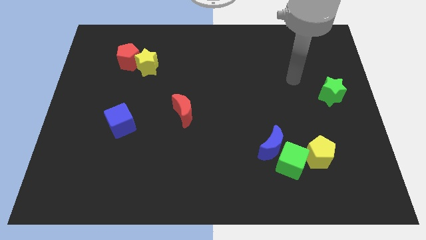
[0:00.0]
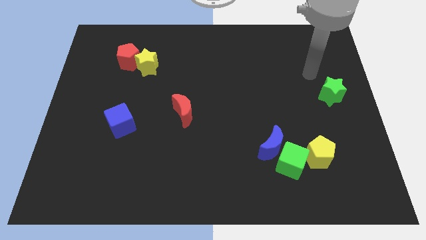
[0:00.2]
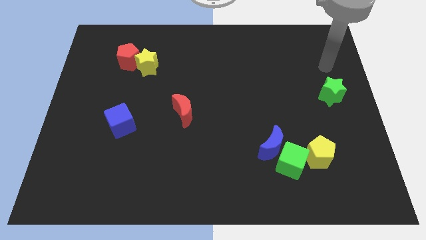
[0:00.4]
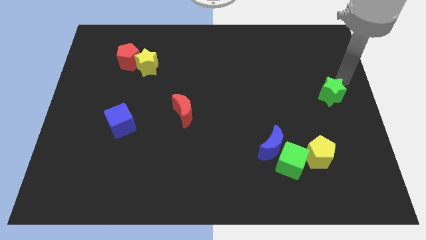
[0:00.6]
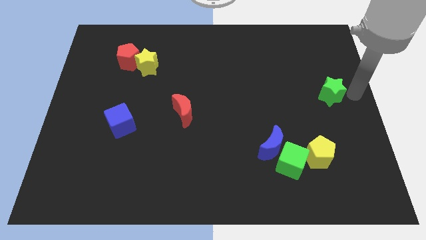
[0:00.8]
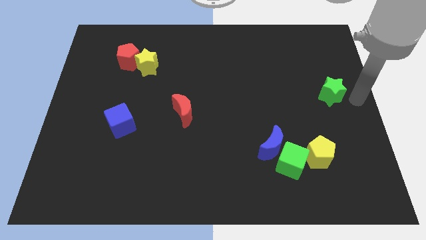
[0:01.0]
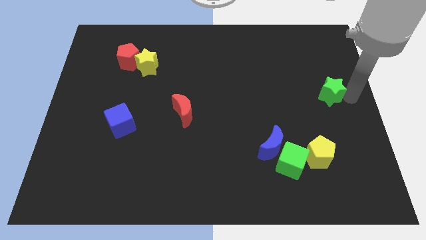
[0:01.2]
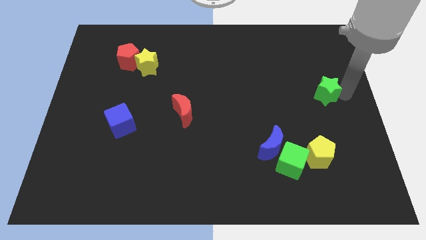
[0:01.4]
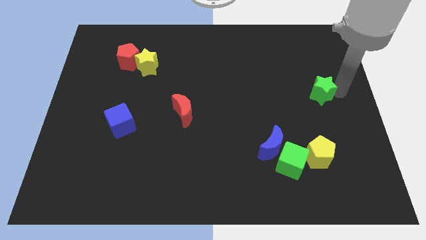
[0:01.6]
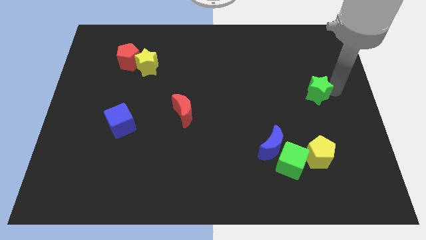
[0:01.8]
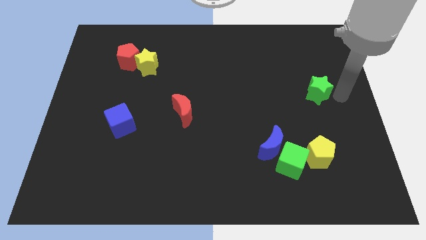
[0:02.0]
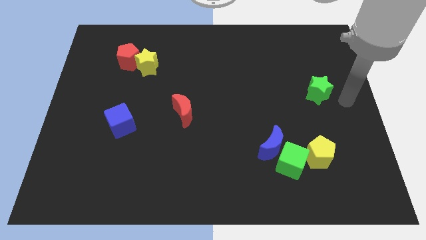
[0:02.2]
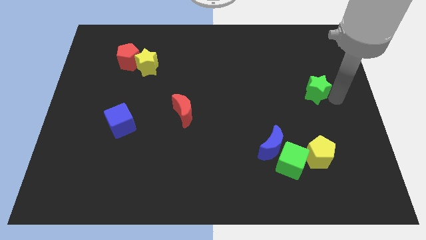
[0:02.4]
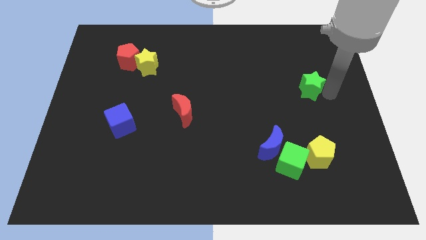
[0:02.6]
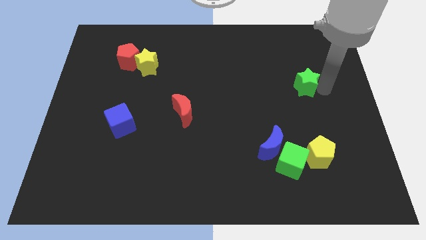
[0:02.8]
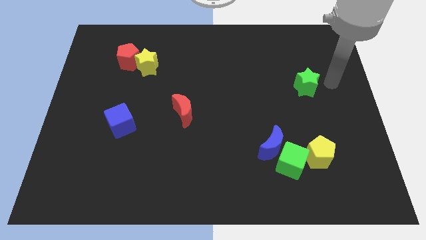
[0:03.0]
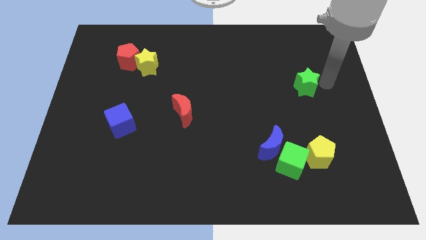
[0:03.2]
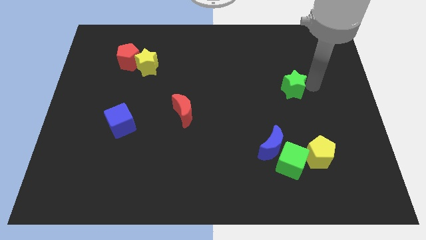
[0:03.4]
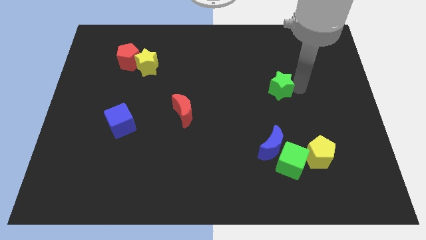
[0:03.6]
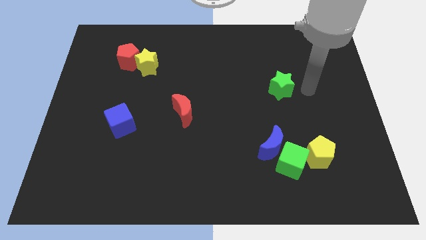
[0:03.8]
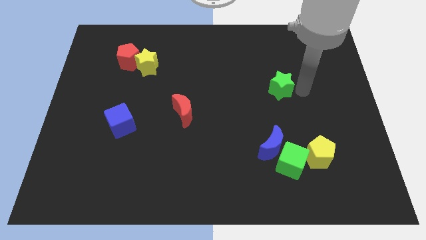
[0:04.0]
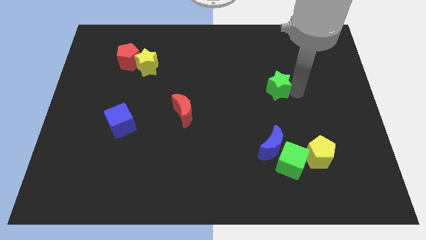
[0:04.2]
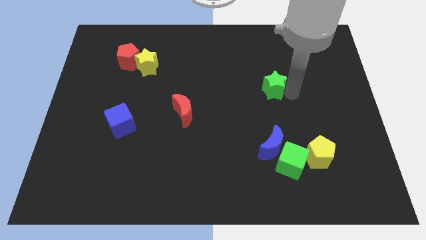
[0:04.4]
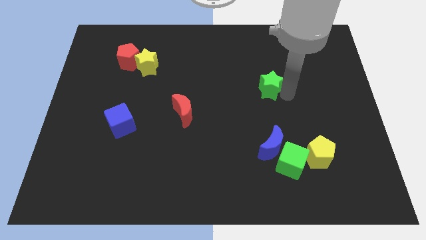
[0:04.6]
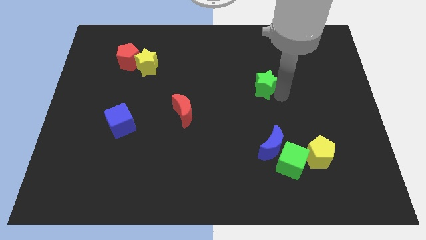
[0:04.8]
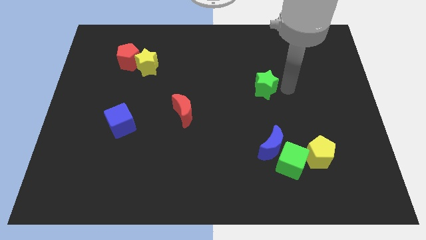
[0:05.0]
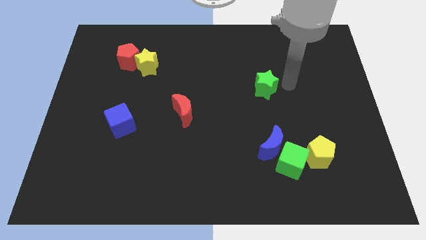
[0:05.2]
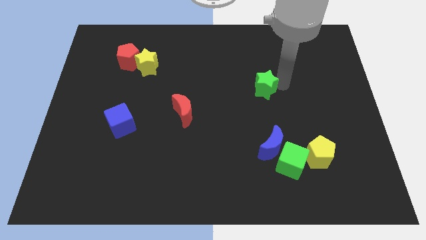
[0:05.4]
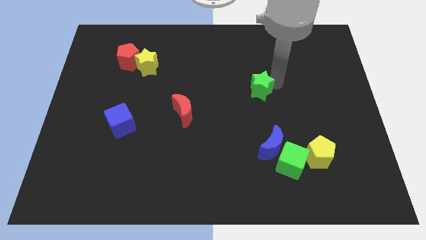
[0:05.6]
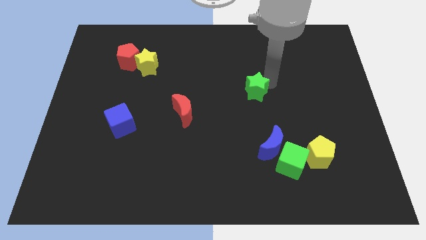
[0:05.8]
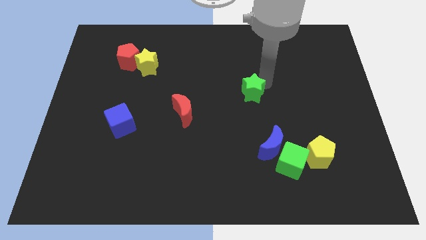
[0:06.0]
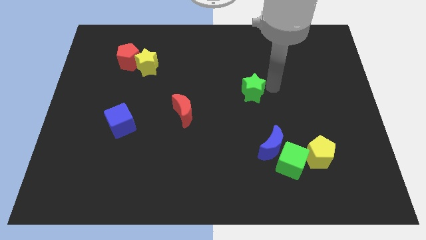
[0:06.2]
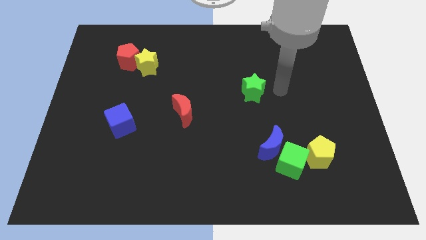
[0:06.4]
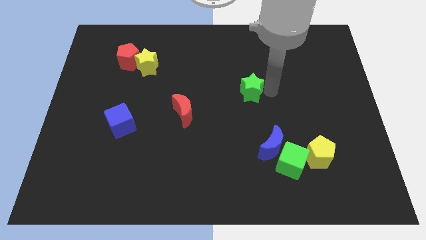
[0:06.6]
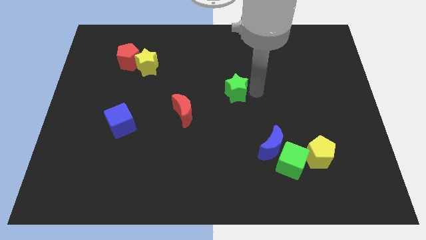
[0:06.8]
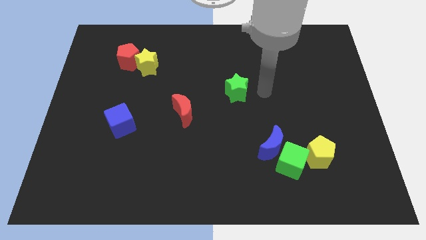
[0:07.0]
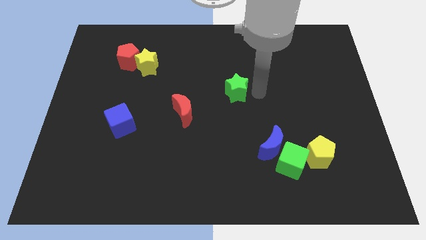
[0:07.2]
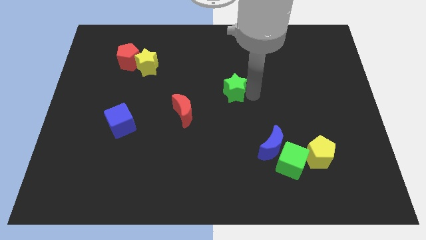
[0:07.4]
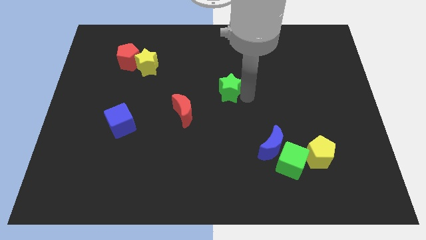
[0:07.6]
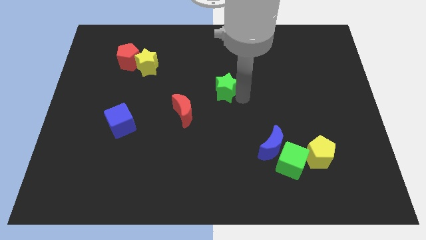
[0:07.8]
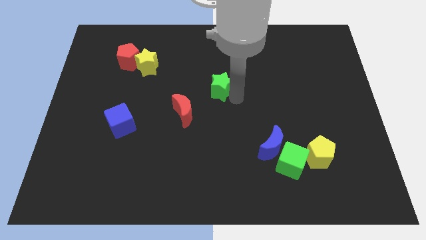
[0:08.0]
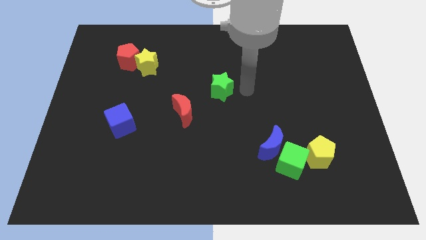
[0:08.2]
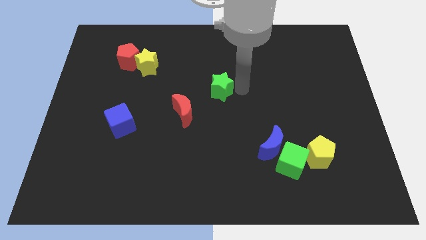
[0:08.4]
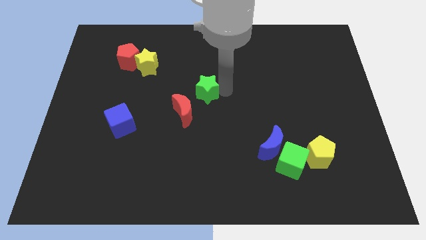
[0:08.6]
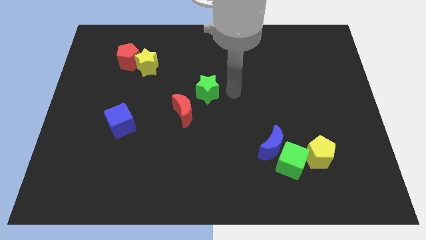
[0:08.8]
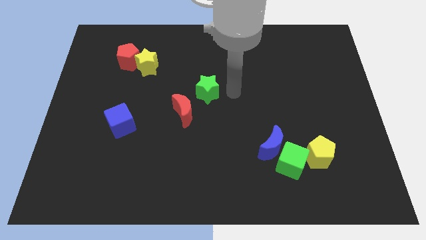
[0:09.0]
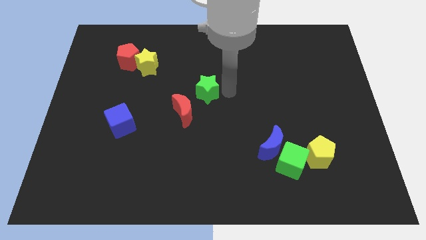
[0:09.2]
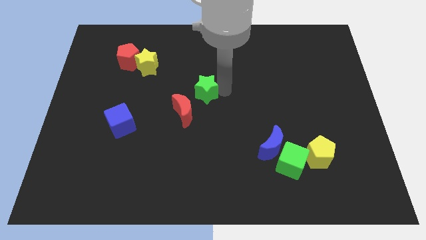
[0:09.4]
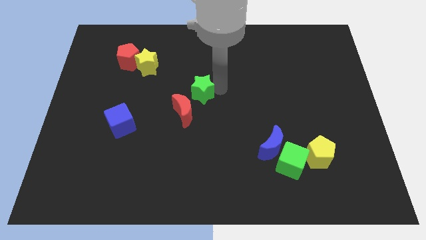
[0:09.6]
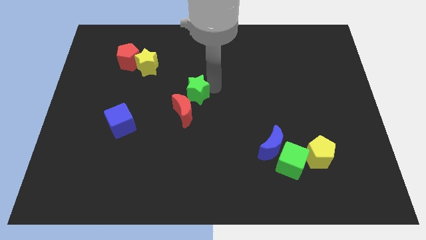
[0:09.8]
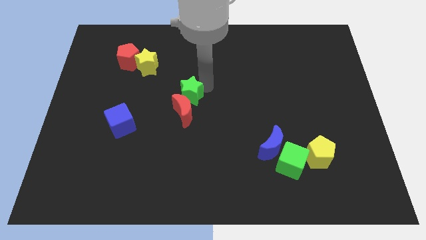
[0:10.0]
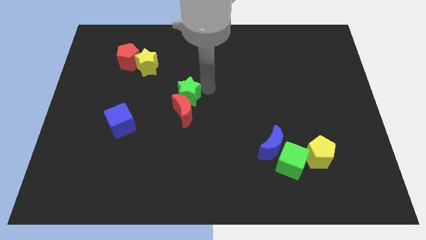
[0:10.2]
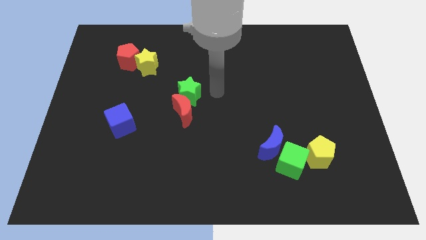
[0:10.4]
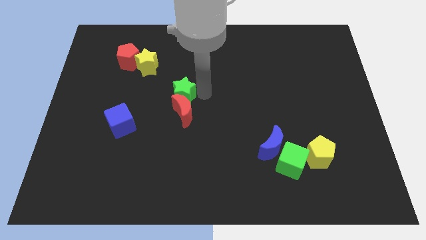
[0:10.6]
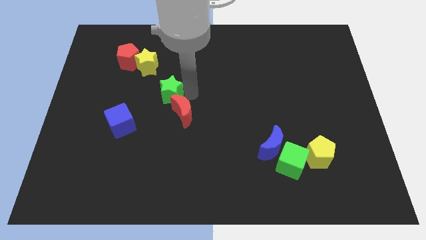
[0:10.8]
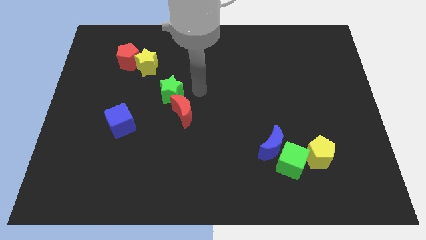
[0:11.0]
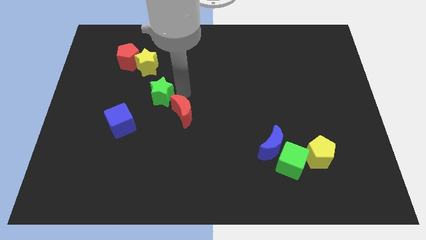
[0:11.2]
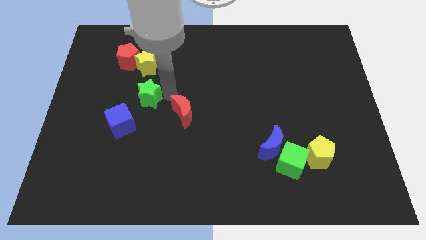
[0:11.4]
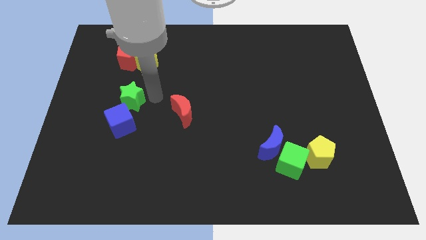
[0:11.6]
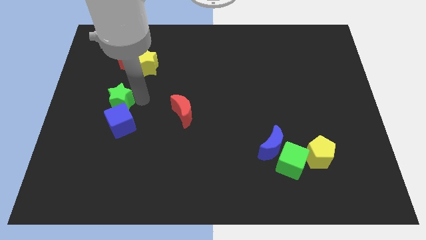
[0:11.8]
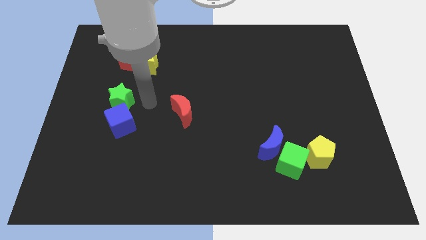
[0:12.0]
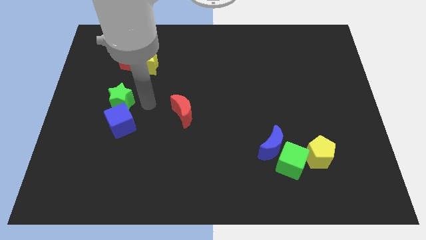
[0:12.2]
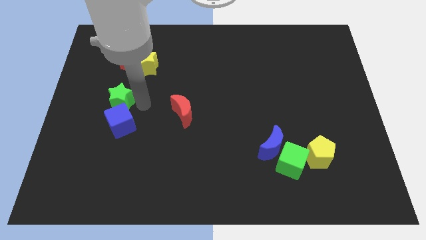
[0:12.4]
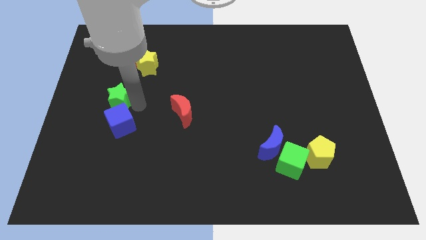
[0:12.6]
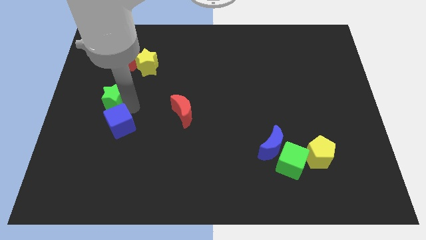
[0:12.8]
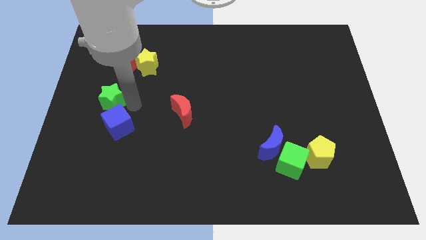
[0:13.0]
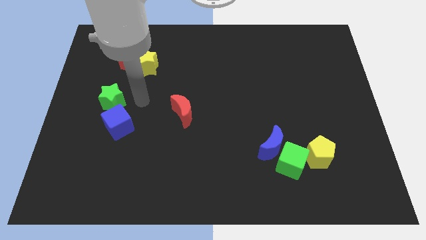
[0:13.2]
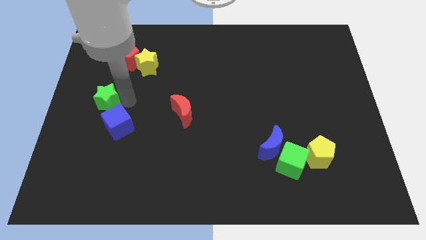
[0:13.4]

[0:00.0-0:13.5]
push the green star to the center left
